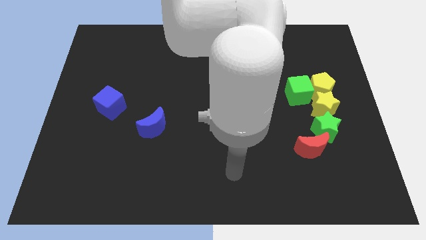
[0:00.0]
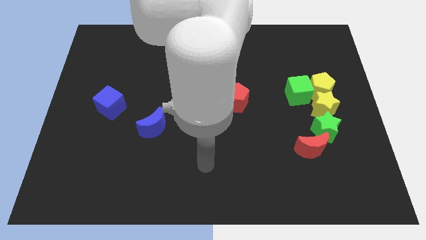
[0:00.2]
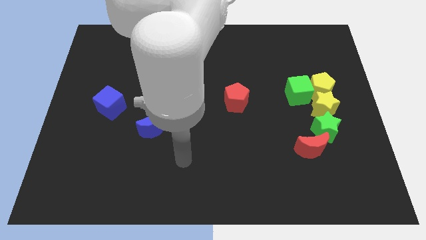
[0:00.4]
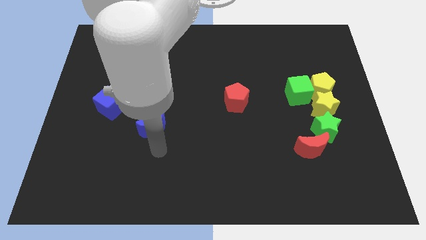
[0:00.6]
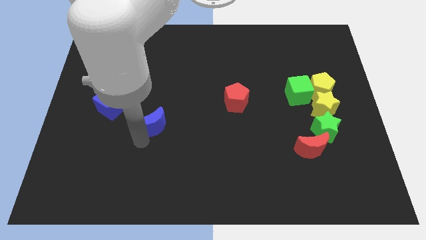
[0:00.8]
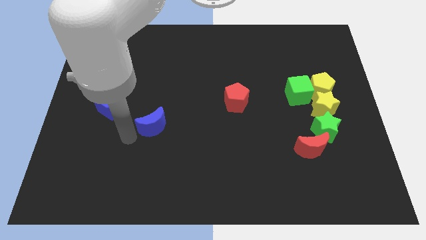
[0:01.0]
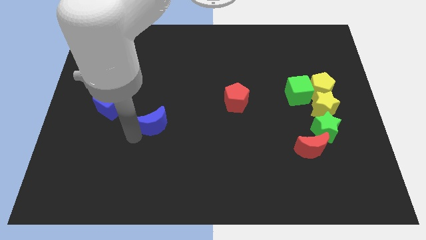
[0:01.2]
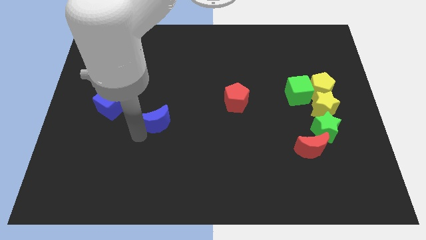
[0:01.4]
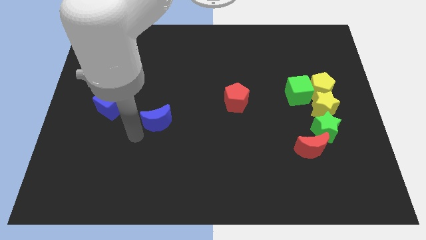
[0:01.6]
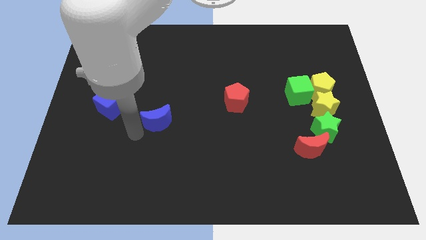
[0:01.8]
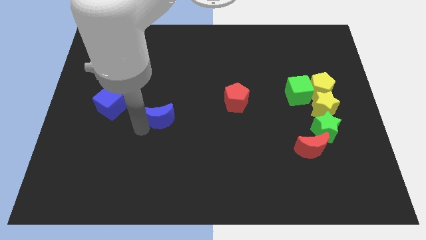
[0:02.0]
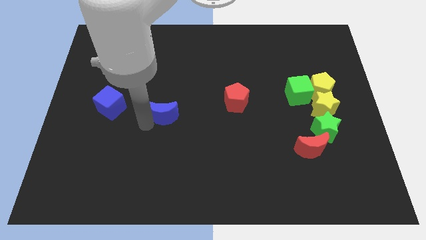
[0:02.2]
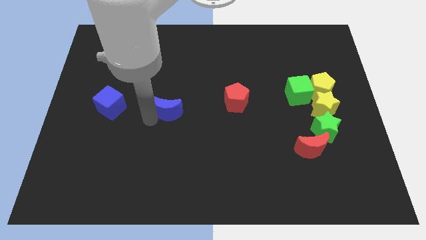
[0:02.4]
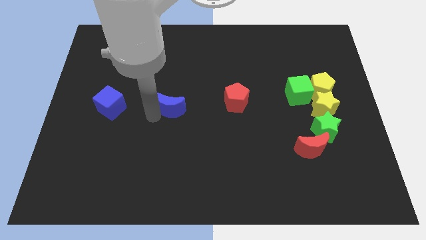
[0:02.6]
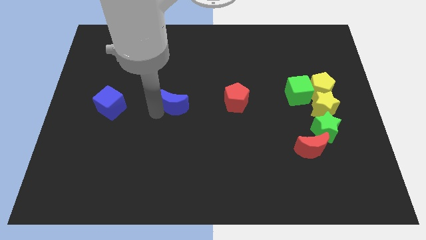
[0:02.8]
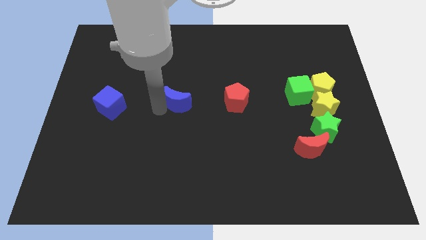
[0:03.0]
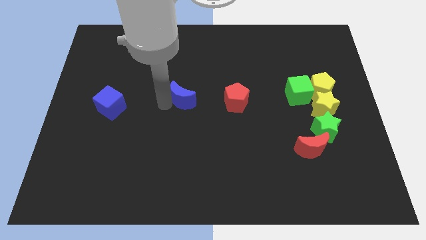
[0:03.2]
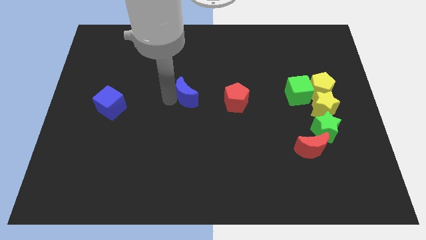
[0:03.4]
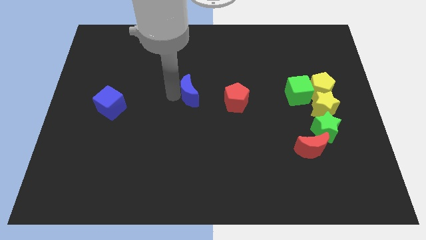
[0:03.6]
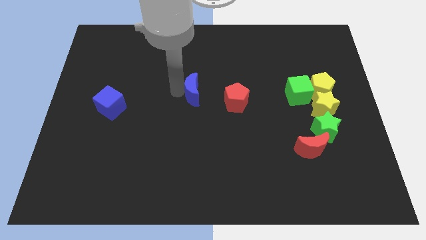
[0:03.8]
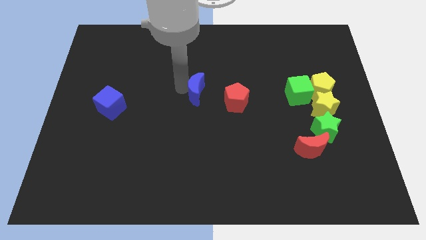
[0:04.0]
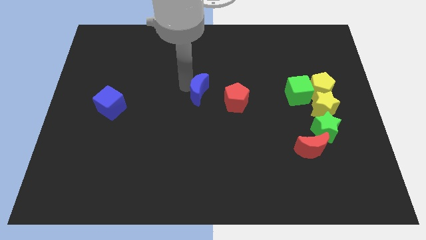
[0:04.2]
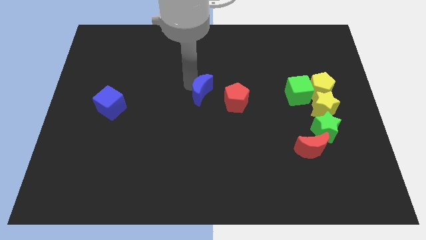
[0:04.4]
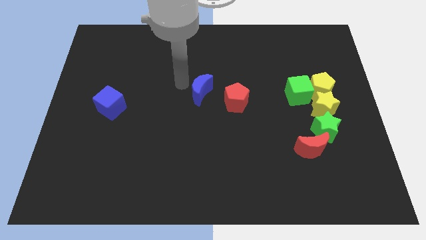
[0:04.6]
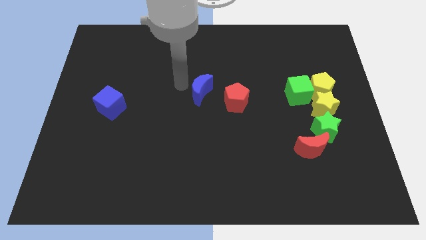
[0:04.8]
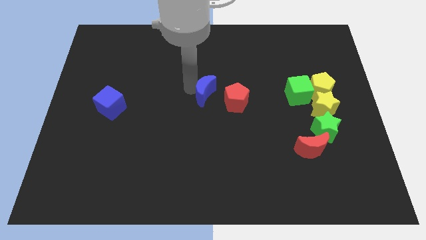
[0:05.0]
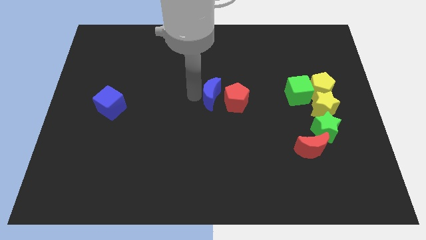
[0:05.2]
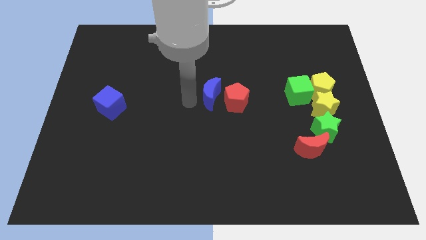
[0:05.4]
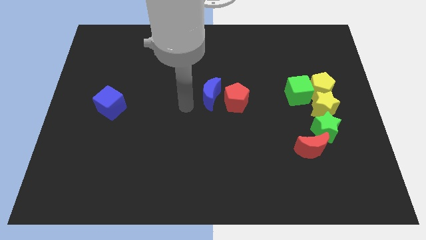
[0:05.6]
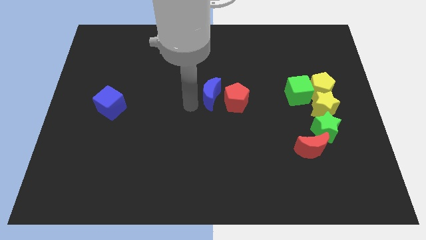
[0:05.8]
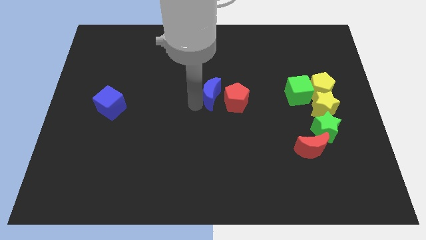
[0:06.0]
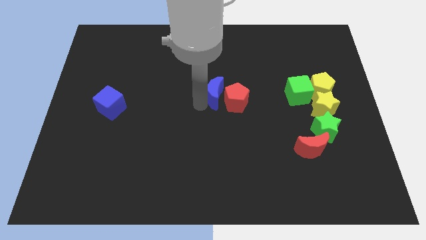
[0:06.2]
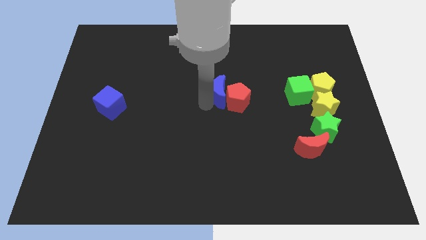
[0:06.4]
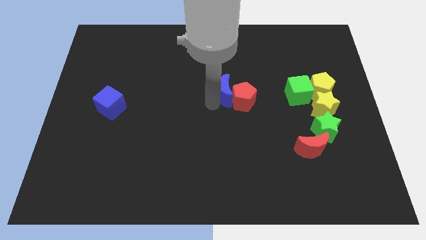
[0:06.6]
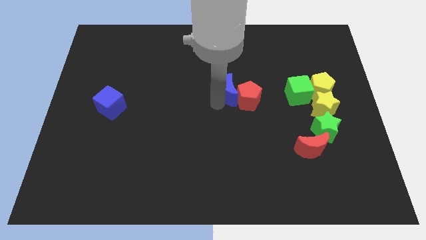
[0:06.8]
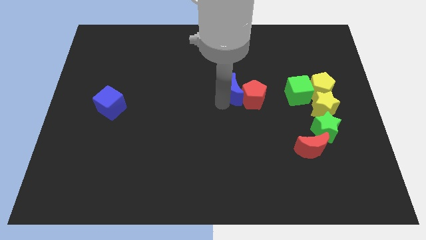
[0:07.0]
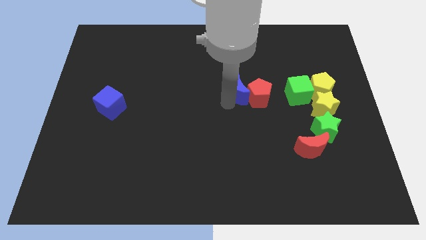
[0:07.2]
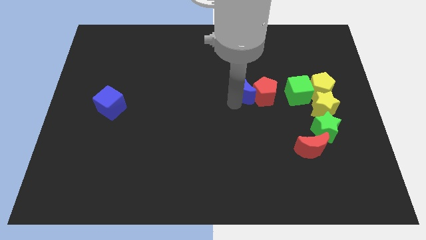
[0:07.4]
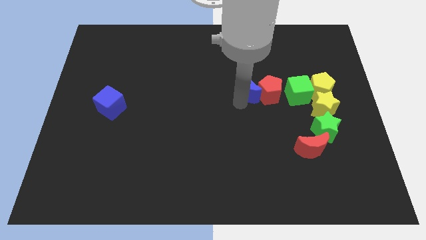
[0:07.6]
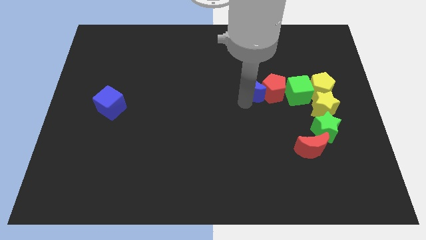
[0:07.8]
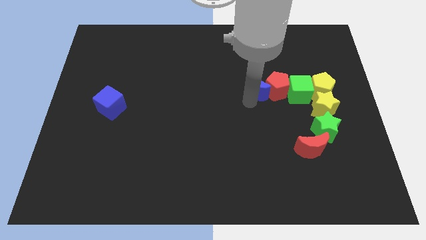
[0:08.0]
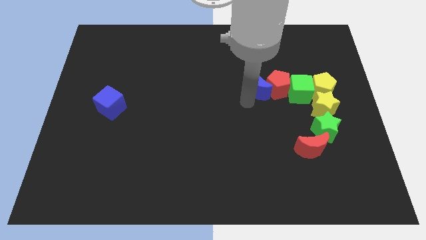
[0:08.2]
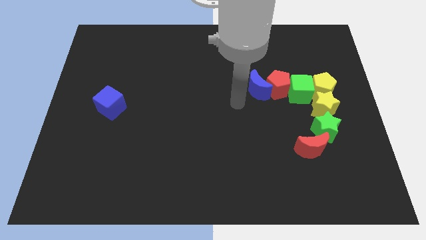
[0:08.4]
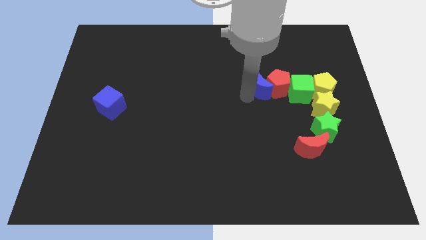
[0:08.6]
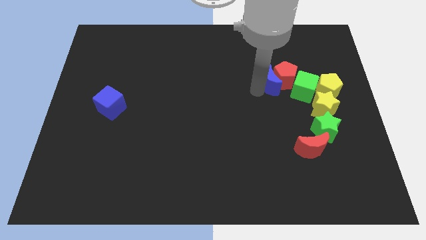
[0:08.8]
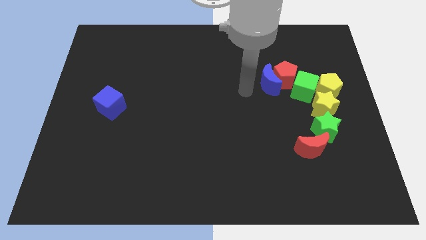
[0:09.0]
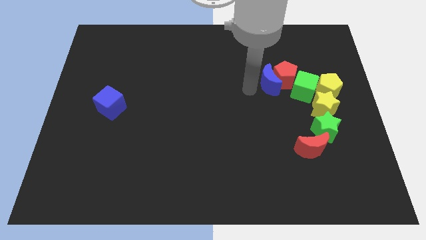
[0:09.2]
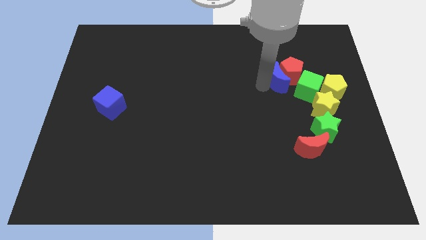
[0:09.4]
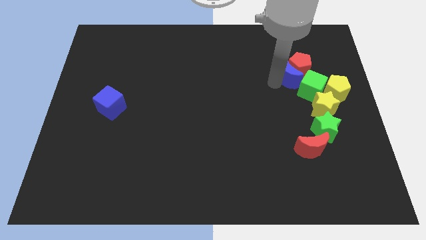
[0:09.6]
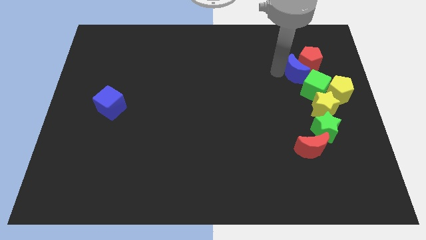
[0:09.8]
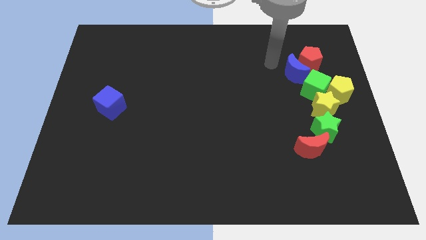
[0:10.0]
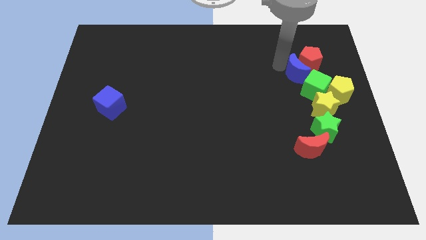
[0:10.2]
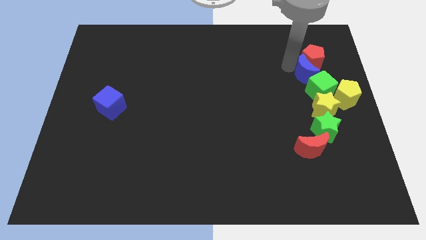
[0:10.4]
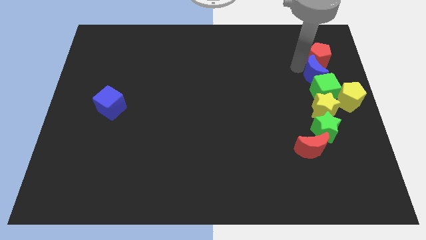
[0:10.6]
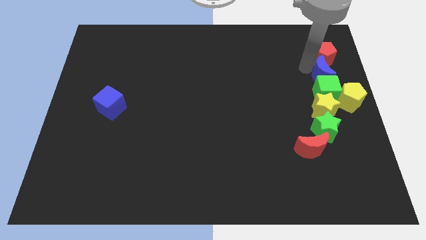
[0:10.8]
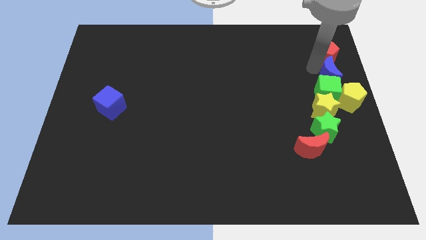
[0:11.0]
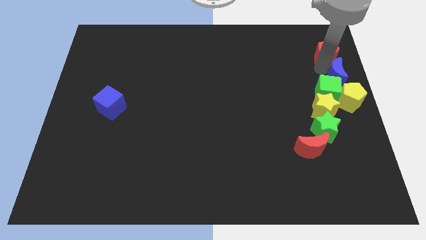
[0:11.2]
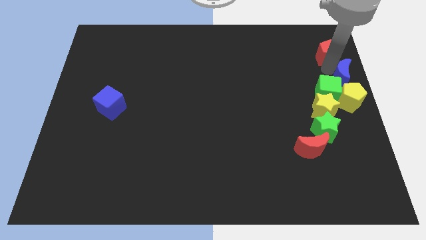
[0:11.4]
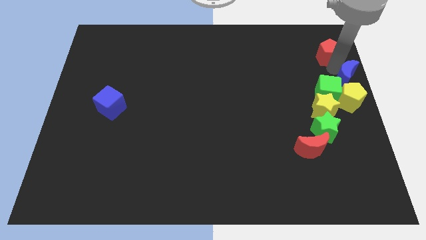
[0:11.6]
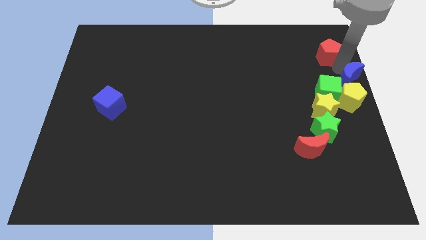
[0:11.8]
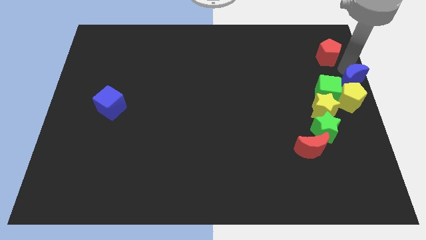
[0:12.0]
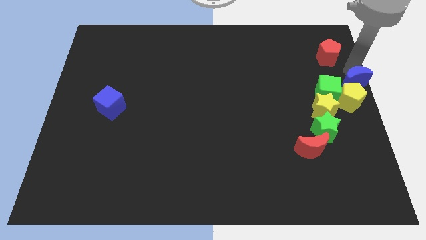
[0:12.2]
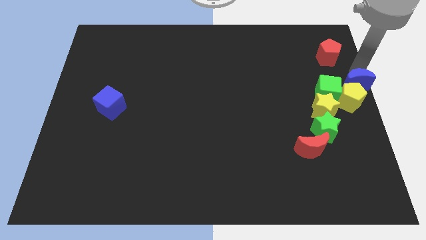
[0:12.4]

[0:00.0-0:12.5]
move the blue moon next to the yellow pentagon

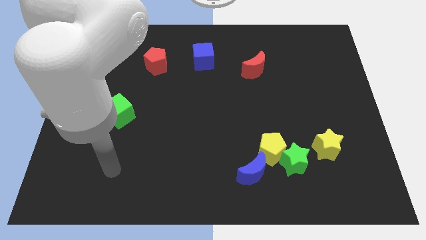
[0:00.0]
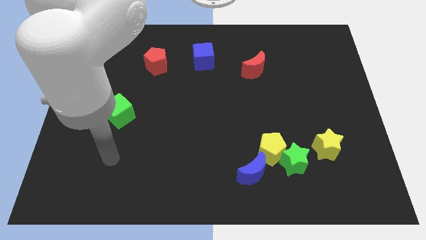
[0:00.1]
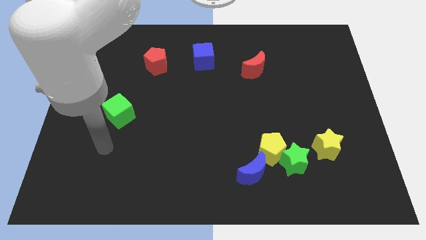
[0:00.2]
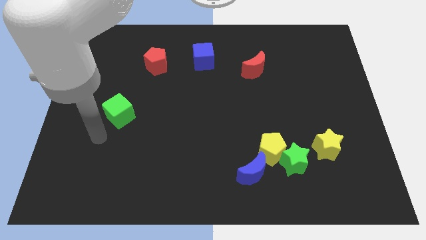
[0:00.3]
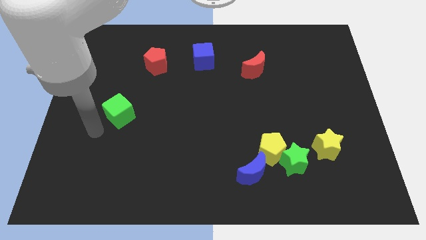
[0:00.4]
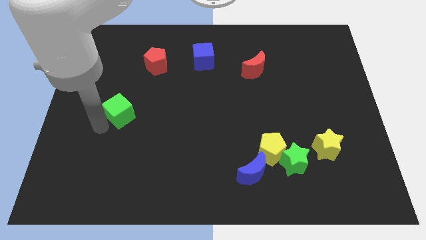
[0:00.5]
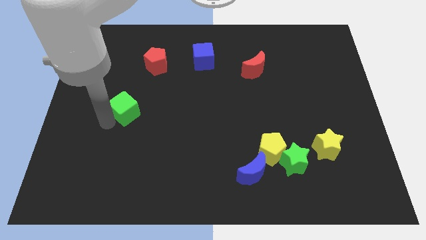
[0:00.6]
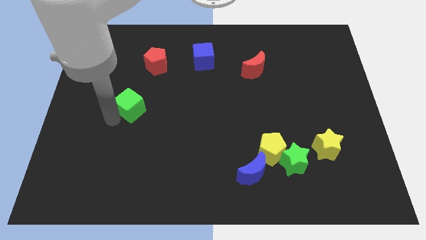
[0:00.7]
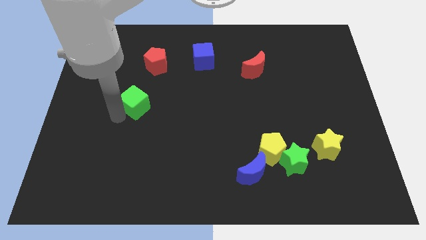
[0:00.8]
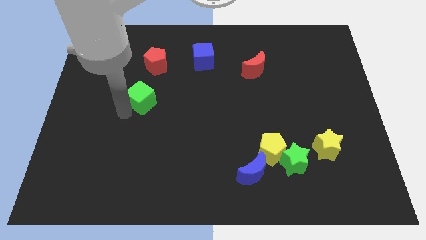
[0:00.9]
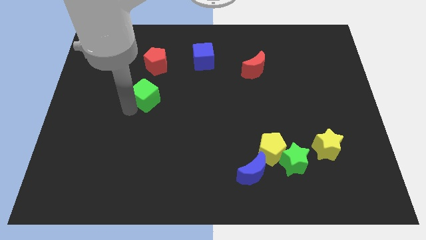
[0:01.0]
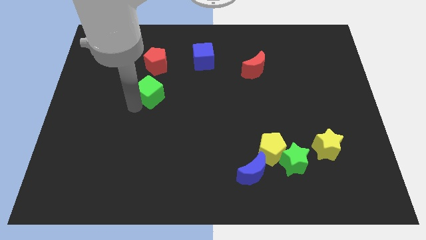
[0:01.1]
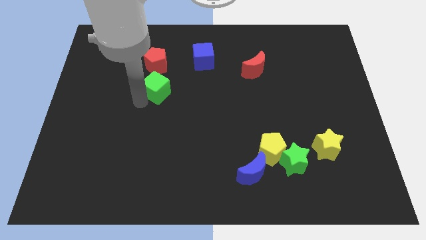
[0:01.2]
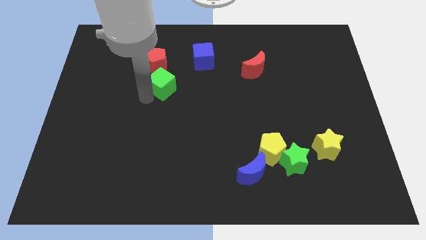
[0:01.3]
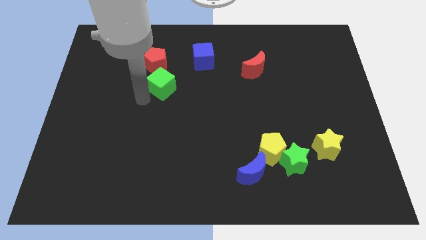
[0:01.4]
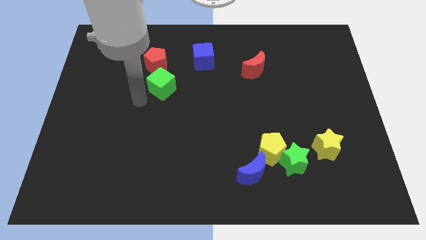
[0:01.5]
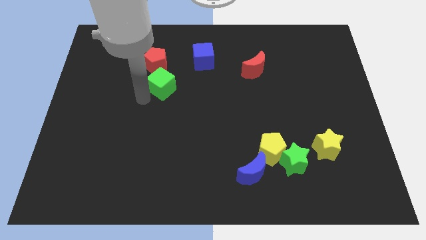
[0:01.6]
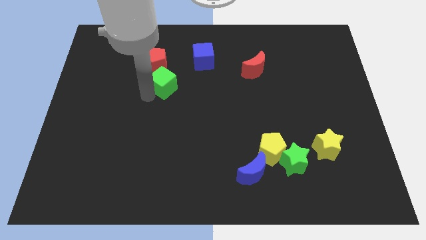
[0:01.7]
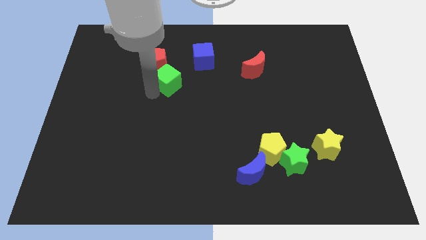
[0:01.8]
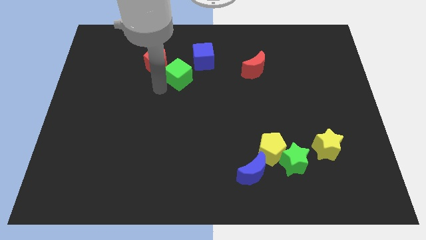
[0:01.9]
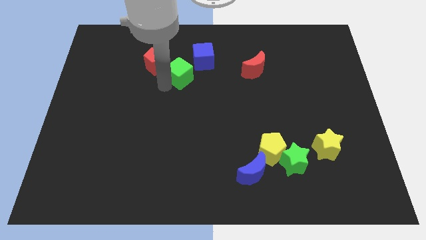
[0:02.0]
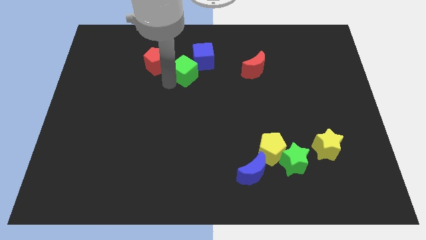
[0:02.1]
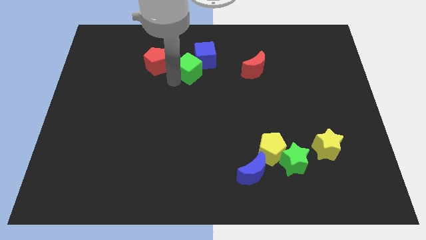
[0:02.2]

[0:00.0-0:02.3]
put the green cube towards the blue cube
